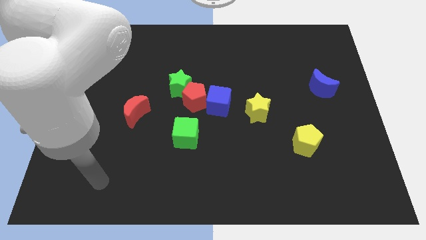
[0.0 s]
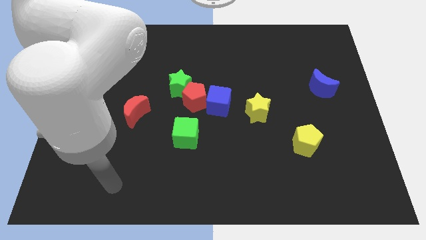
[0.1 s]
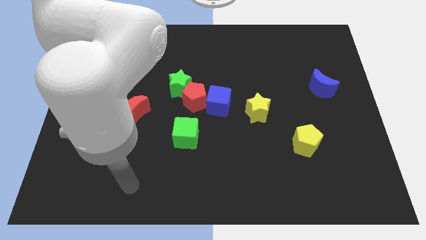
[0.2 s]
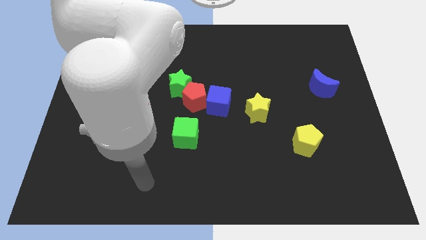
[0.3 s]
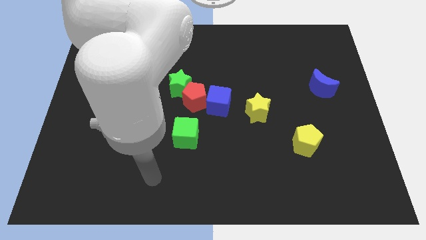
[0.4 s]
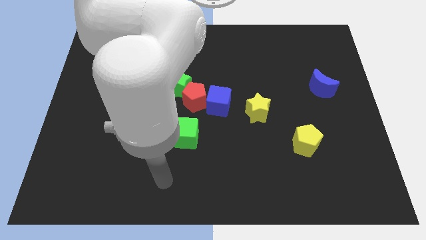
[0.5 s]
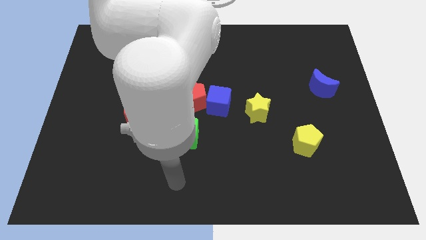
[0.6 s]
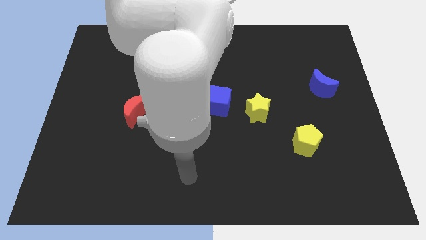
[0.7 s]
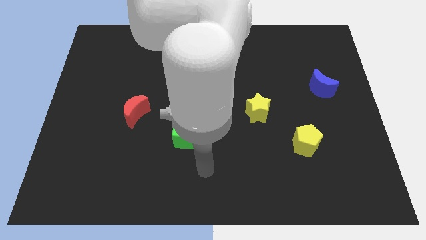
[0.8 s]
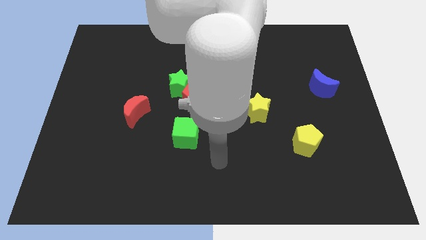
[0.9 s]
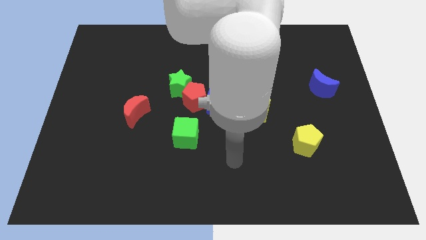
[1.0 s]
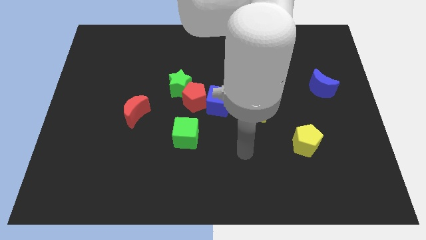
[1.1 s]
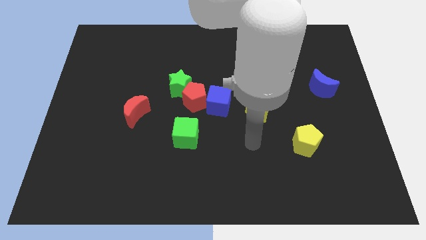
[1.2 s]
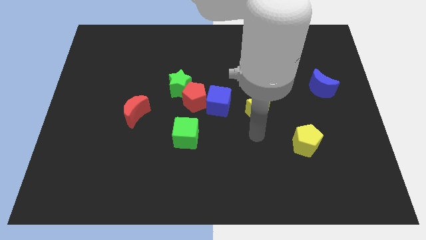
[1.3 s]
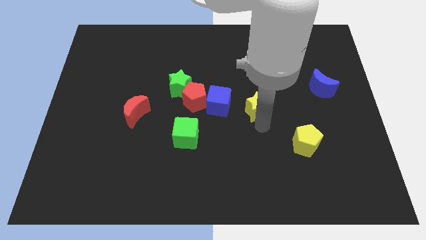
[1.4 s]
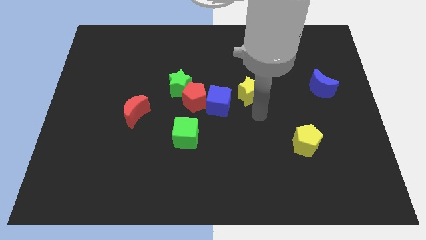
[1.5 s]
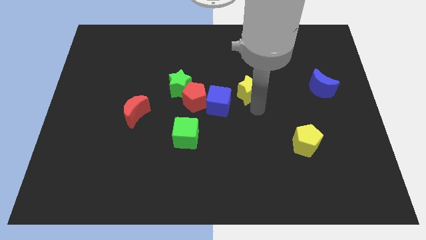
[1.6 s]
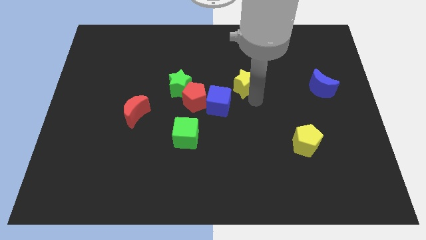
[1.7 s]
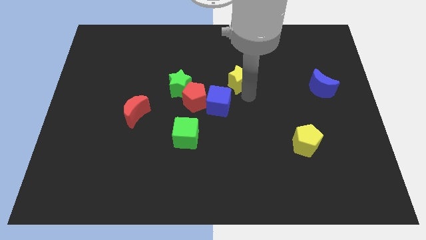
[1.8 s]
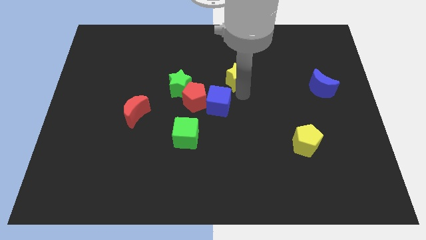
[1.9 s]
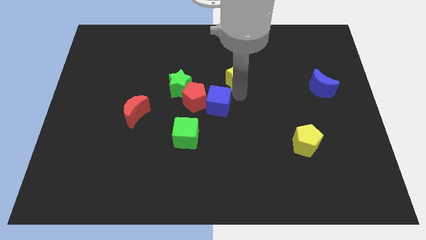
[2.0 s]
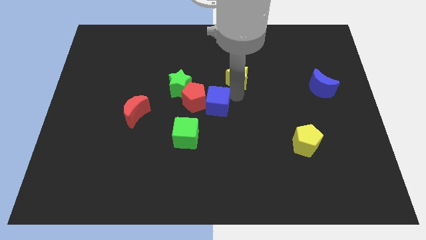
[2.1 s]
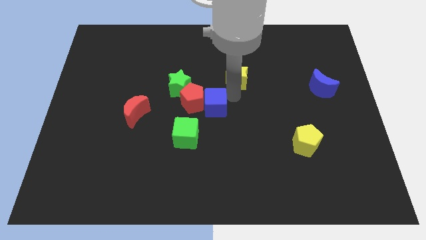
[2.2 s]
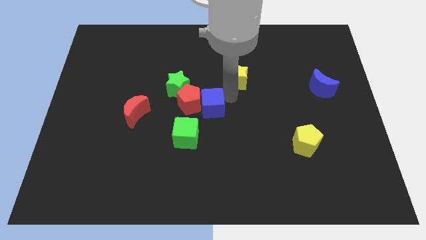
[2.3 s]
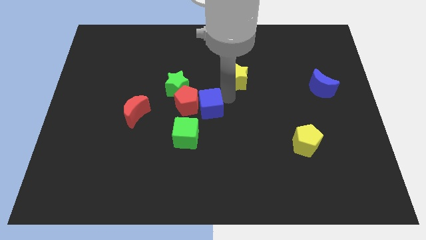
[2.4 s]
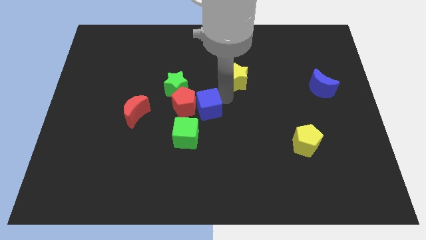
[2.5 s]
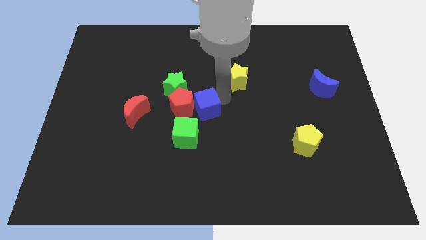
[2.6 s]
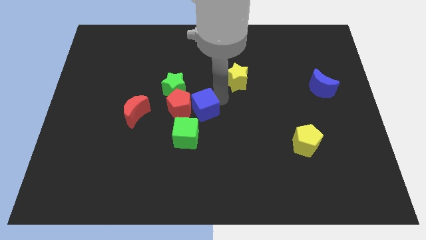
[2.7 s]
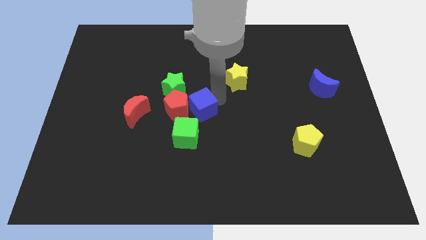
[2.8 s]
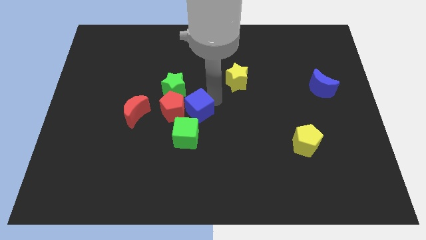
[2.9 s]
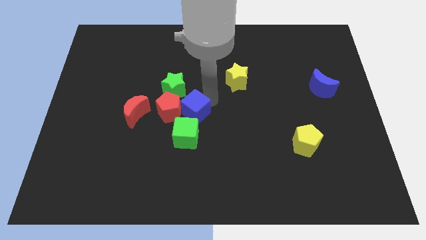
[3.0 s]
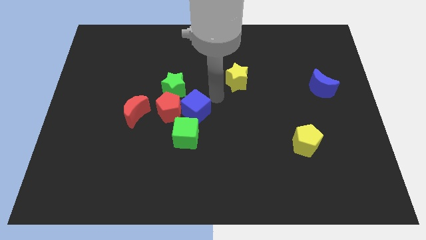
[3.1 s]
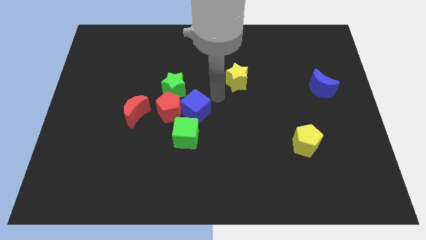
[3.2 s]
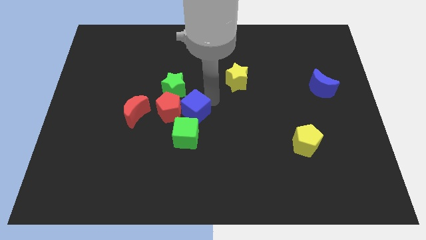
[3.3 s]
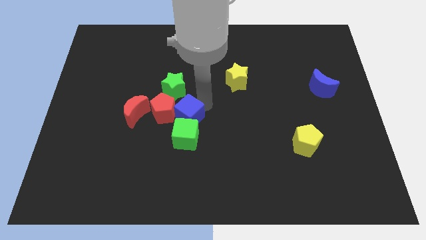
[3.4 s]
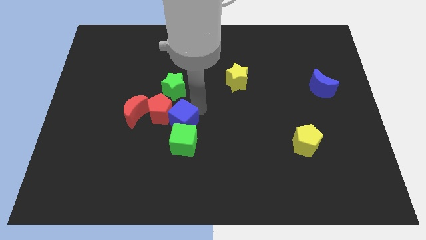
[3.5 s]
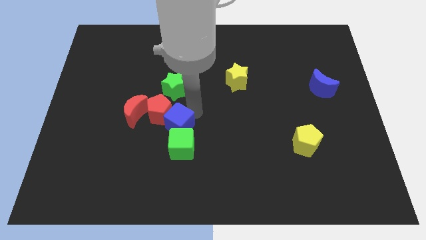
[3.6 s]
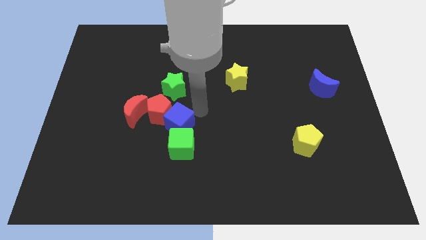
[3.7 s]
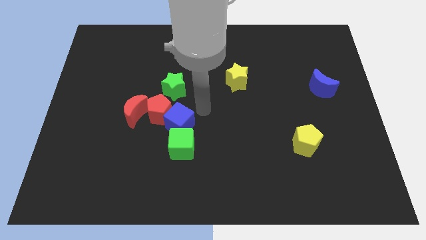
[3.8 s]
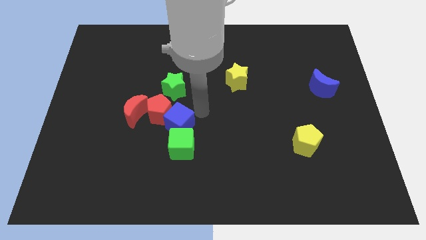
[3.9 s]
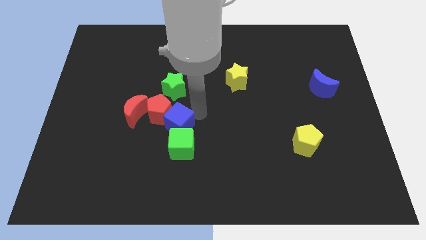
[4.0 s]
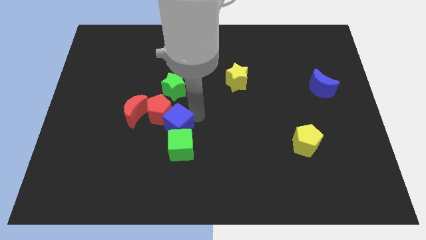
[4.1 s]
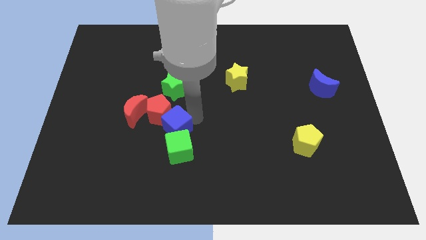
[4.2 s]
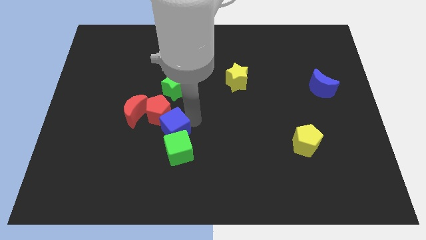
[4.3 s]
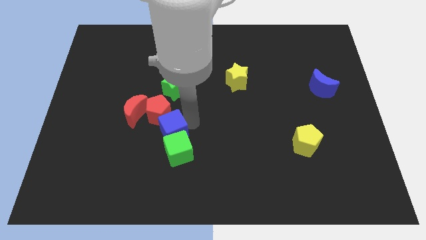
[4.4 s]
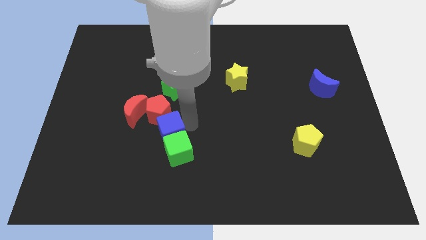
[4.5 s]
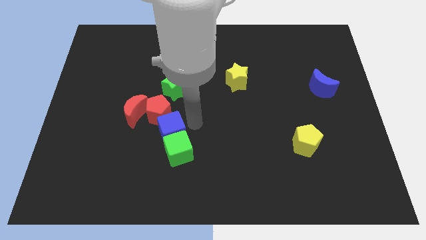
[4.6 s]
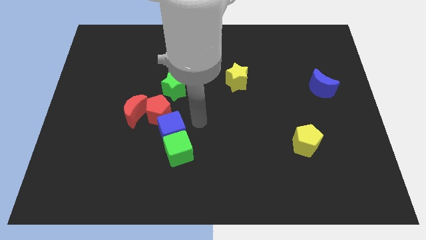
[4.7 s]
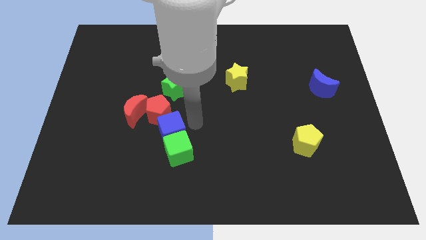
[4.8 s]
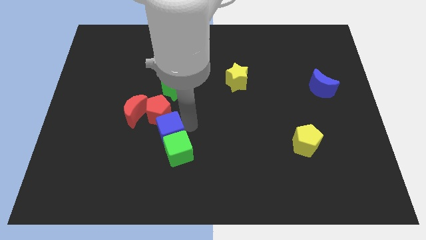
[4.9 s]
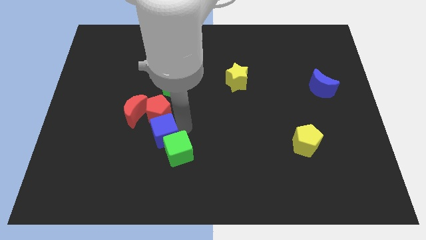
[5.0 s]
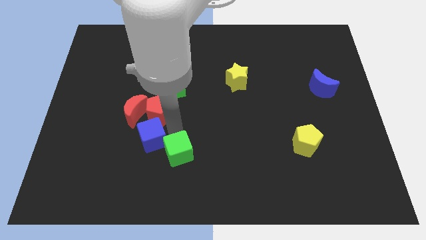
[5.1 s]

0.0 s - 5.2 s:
move the blue cube below the red moon

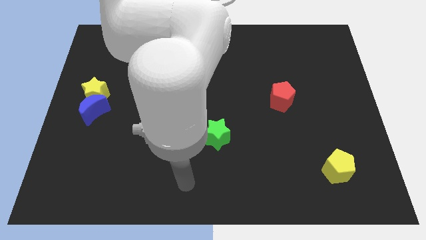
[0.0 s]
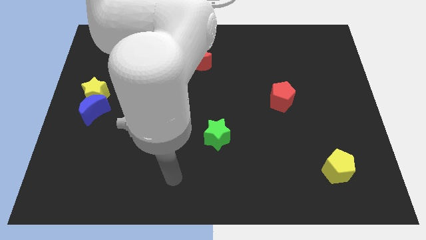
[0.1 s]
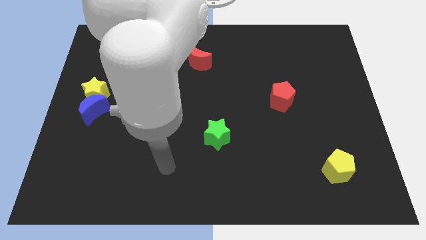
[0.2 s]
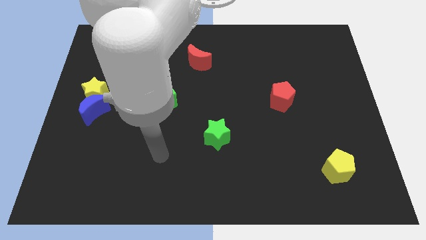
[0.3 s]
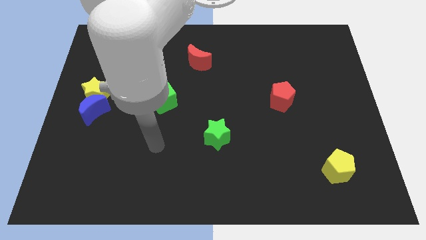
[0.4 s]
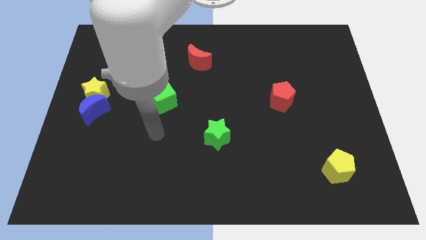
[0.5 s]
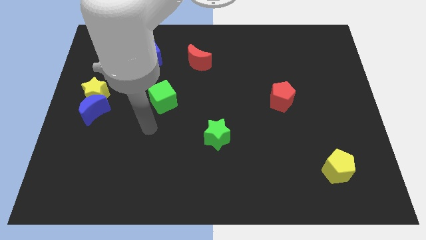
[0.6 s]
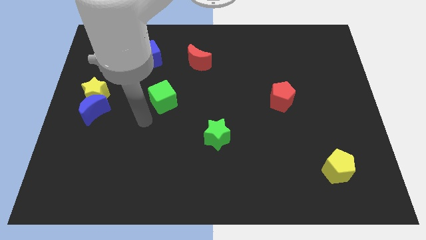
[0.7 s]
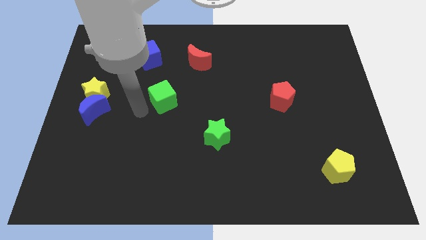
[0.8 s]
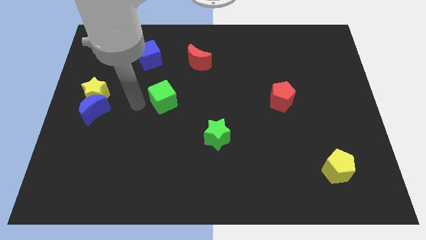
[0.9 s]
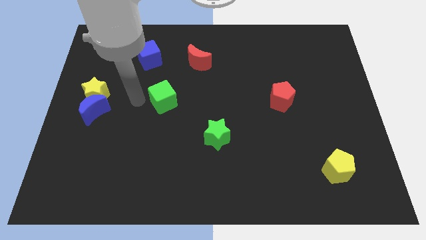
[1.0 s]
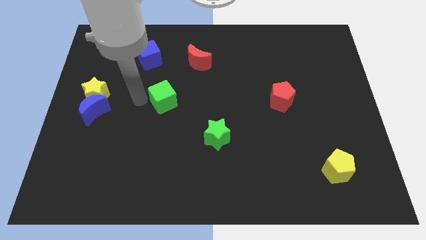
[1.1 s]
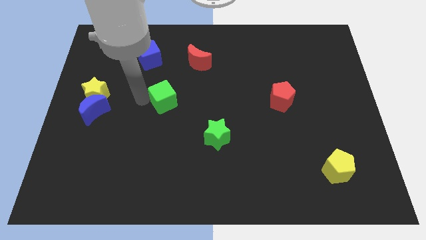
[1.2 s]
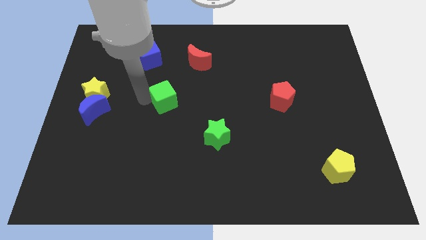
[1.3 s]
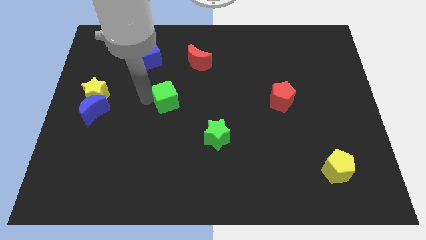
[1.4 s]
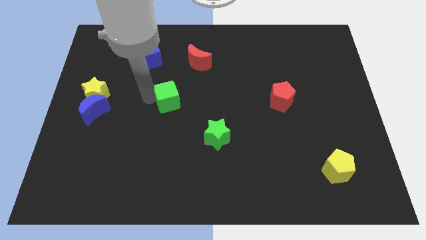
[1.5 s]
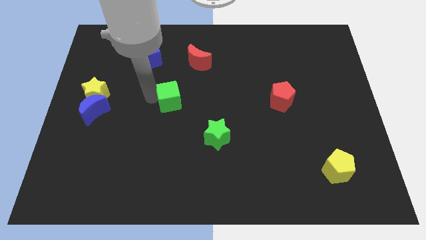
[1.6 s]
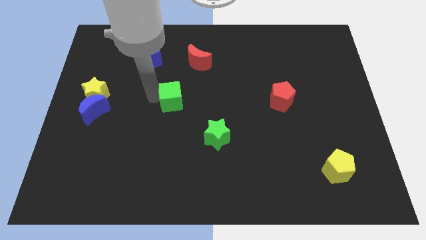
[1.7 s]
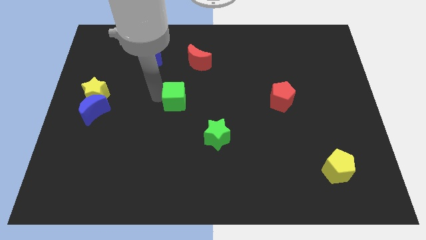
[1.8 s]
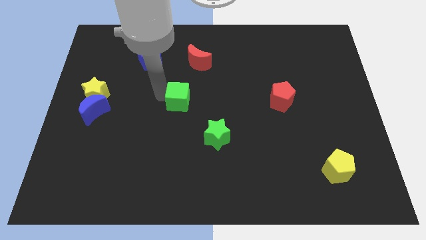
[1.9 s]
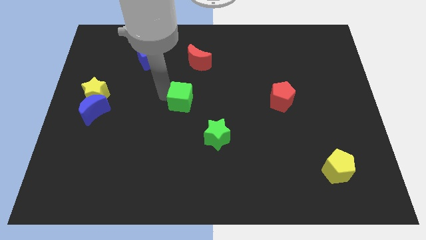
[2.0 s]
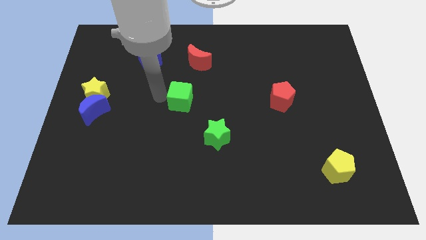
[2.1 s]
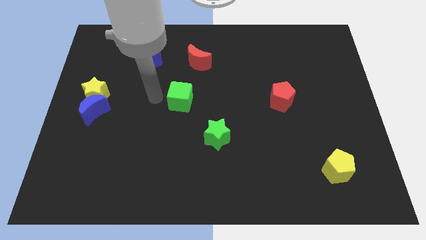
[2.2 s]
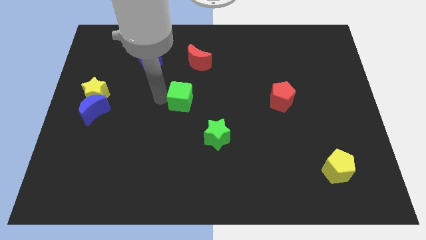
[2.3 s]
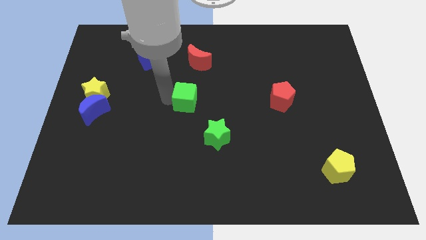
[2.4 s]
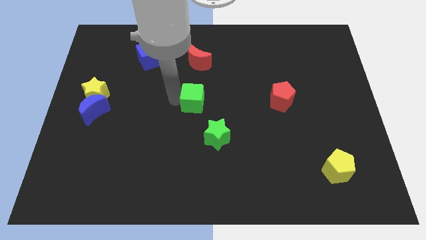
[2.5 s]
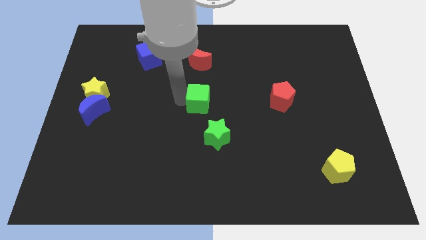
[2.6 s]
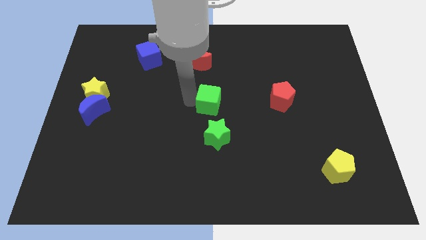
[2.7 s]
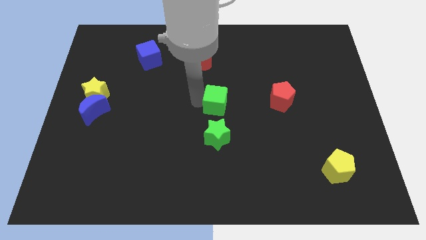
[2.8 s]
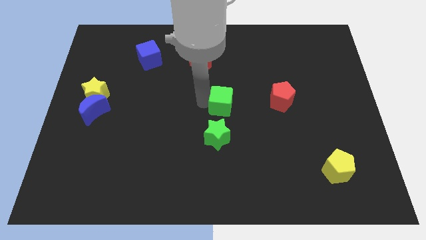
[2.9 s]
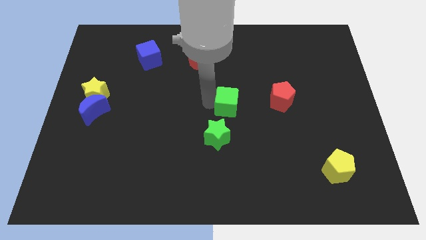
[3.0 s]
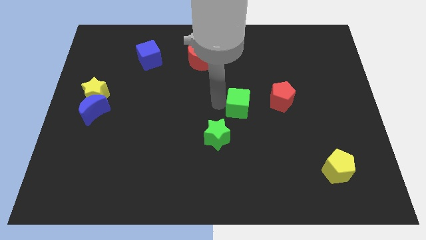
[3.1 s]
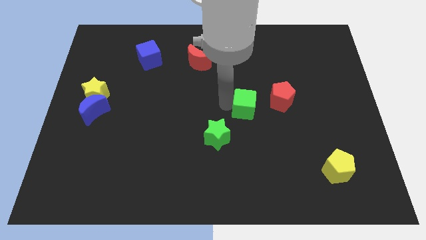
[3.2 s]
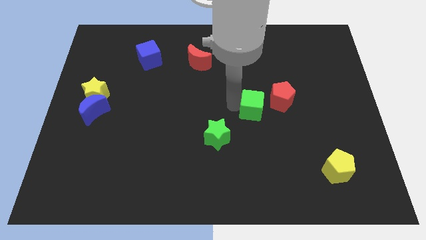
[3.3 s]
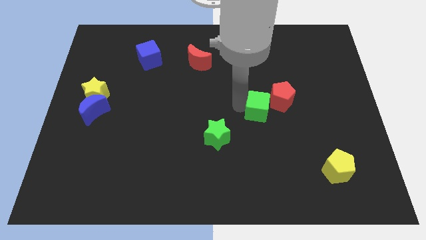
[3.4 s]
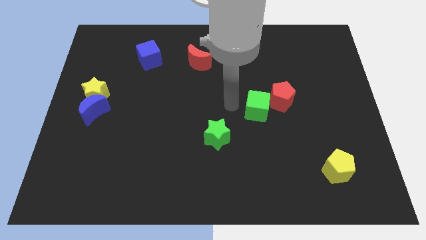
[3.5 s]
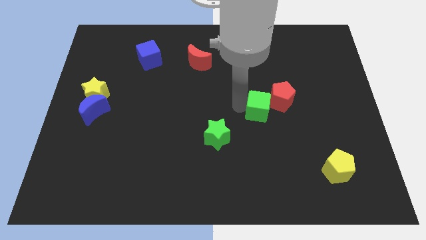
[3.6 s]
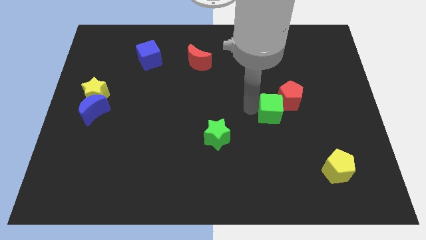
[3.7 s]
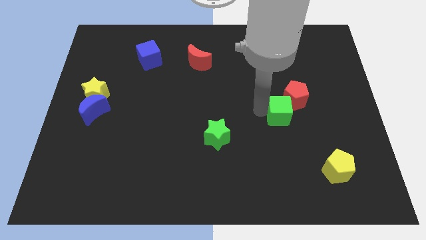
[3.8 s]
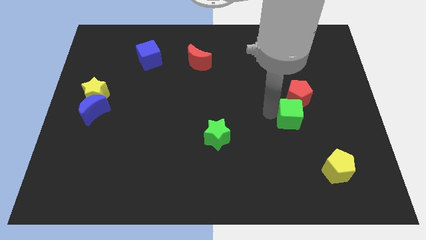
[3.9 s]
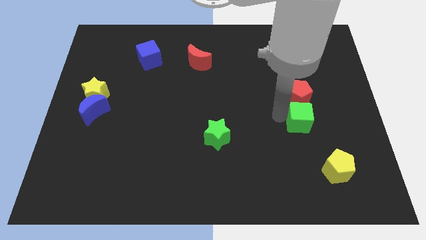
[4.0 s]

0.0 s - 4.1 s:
push the green cube to the bottom right of the red pentagon
